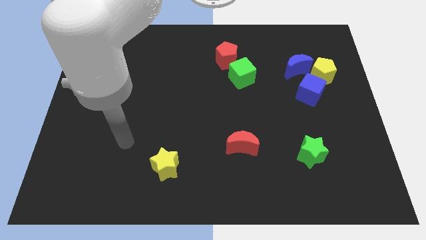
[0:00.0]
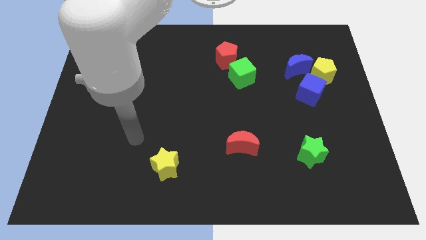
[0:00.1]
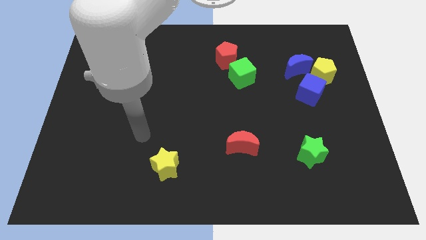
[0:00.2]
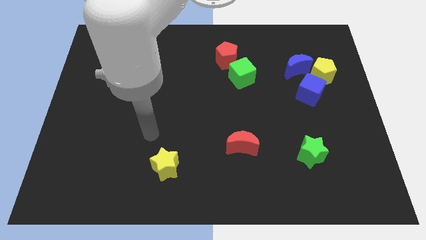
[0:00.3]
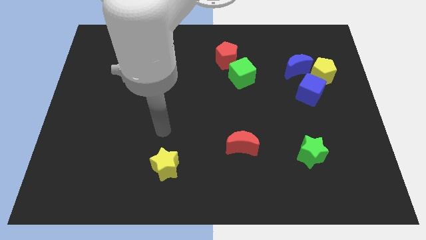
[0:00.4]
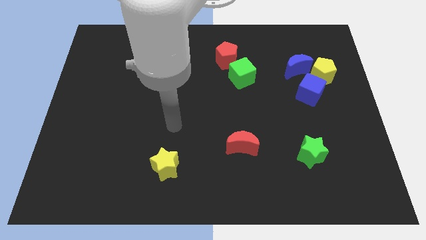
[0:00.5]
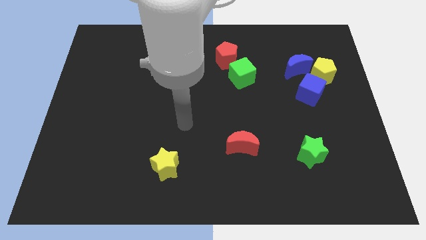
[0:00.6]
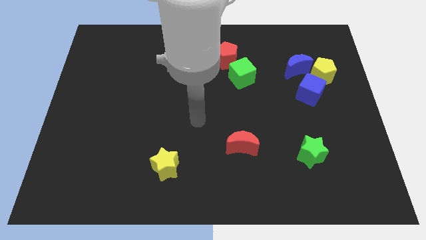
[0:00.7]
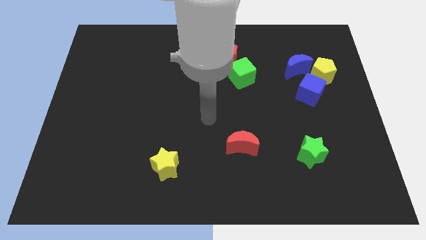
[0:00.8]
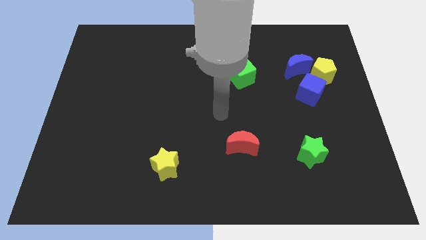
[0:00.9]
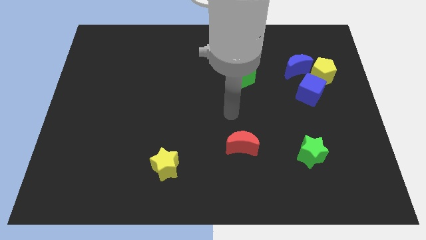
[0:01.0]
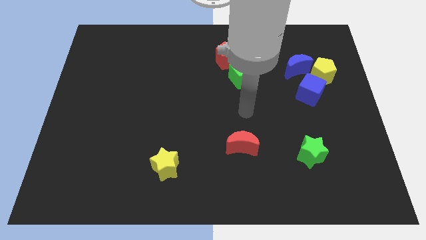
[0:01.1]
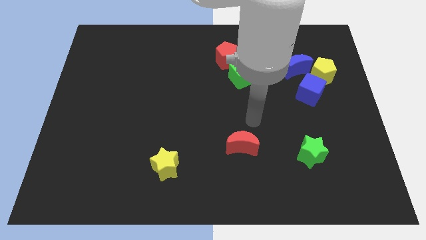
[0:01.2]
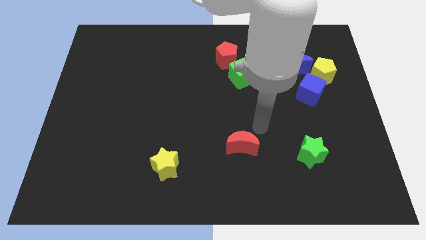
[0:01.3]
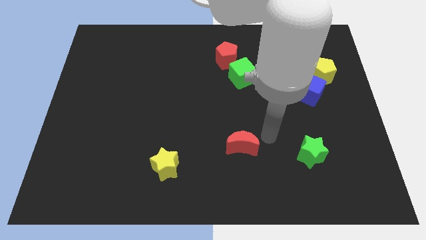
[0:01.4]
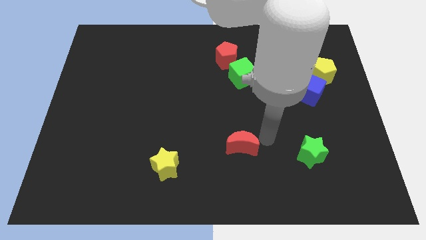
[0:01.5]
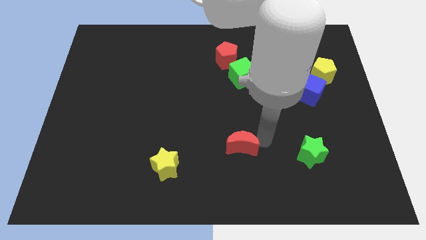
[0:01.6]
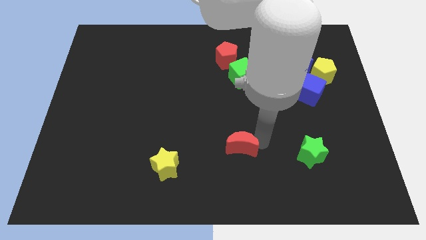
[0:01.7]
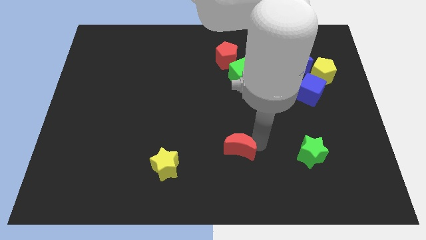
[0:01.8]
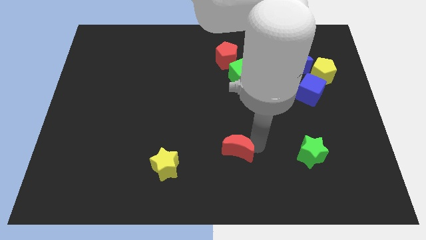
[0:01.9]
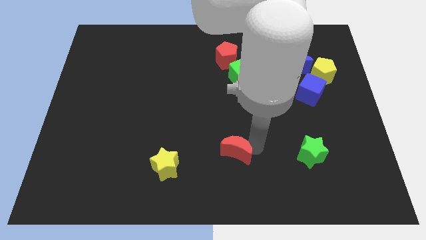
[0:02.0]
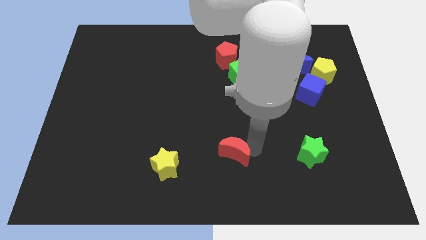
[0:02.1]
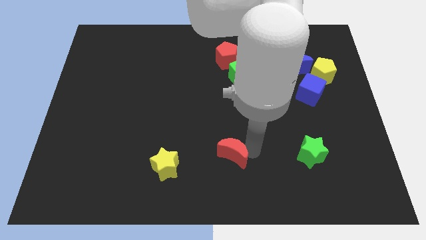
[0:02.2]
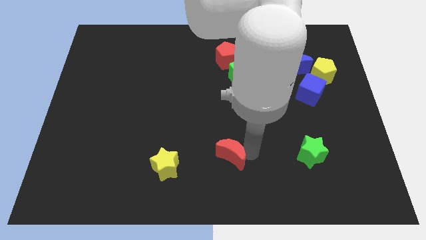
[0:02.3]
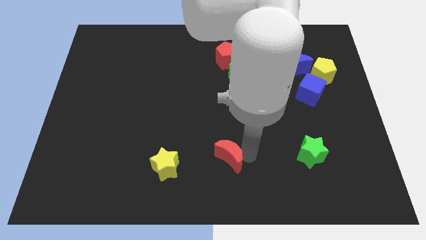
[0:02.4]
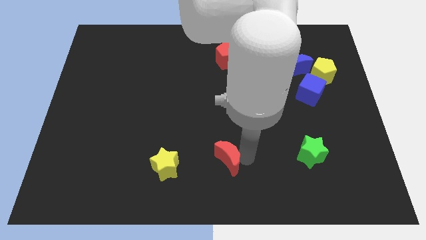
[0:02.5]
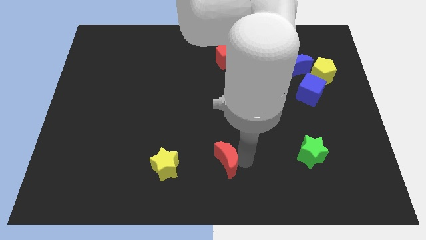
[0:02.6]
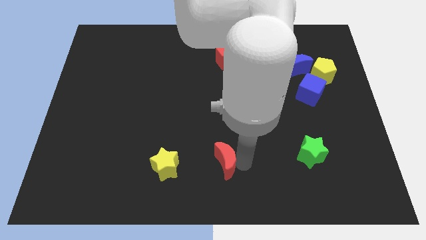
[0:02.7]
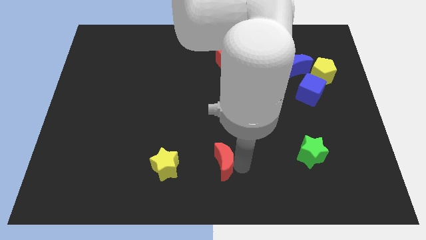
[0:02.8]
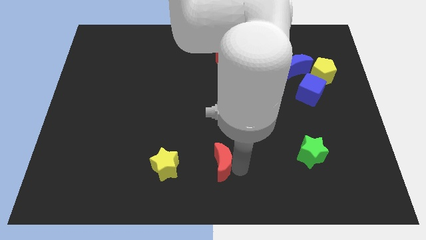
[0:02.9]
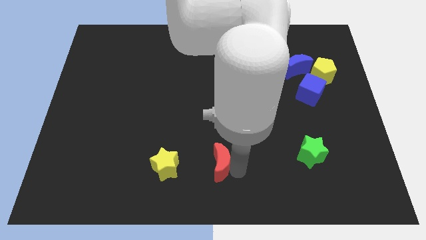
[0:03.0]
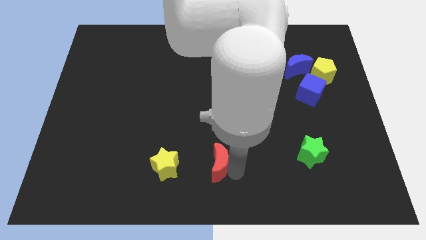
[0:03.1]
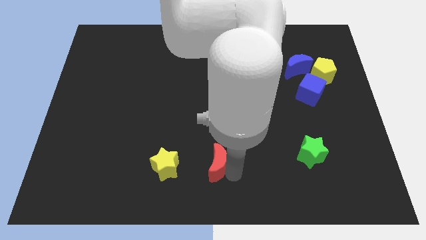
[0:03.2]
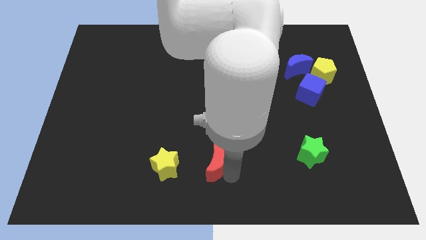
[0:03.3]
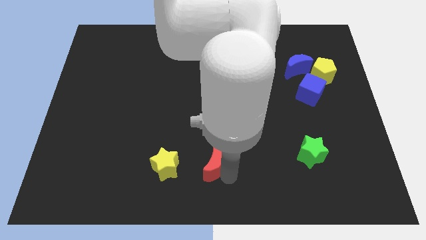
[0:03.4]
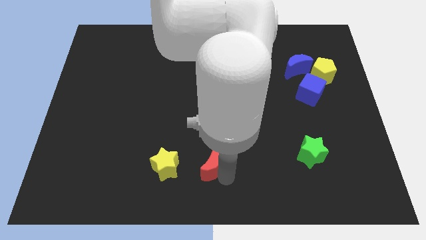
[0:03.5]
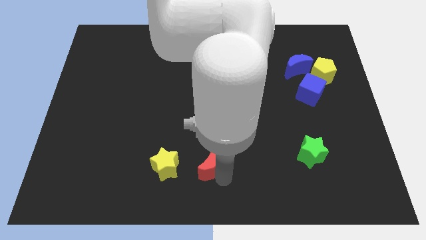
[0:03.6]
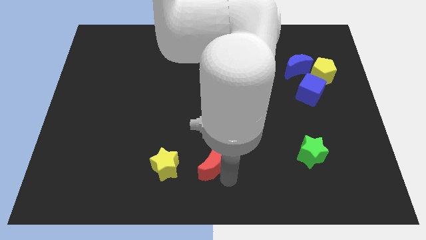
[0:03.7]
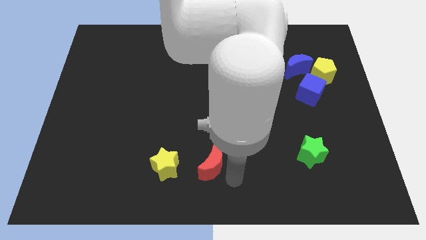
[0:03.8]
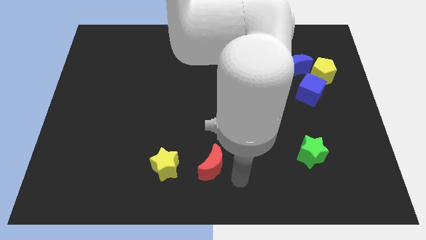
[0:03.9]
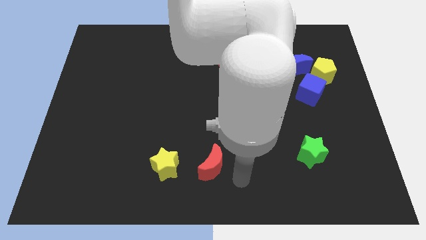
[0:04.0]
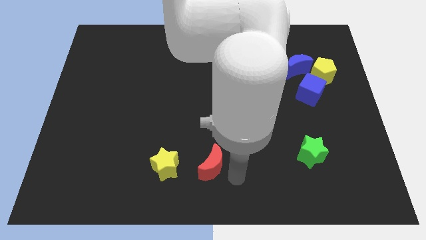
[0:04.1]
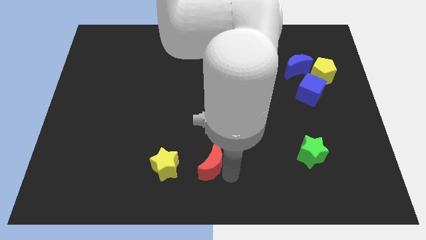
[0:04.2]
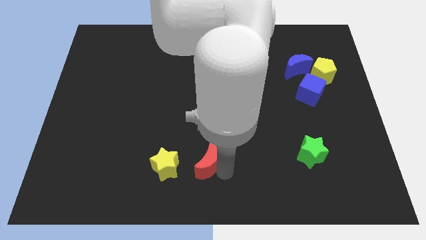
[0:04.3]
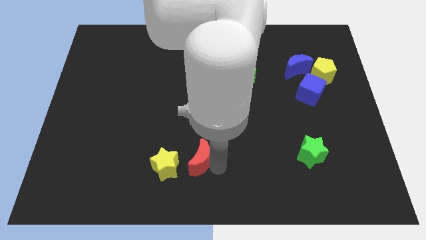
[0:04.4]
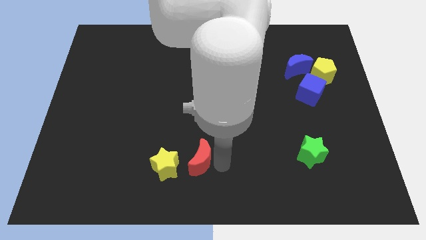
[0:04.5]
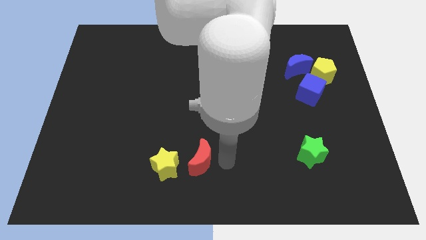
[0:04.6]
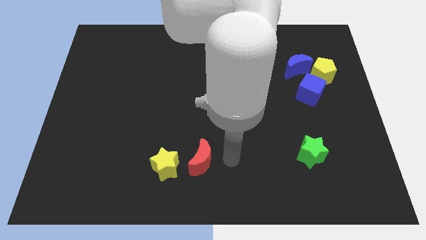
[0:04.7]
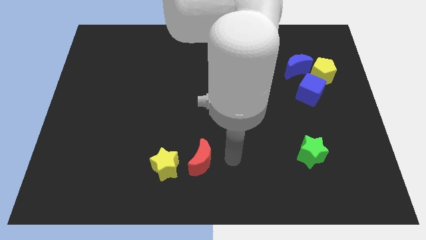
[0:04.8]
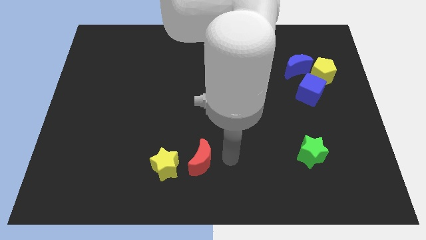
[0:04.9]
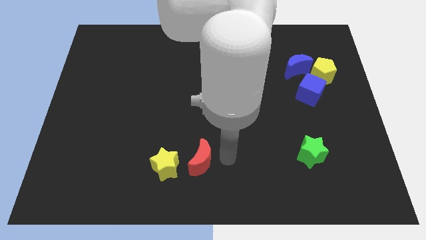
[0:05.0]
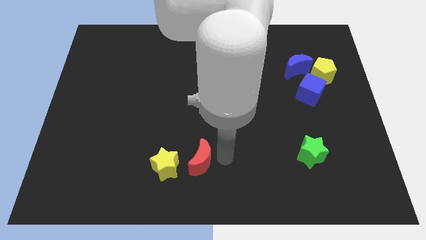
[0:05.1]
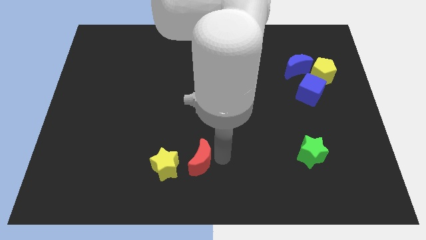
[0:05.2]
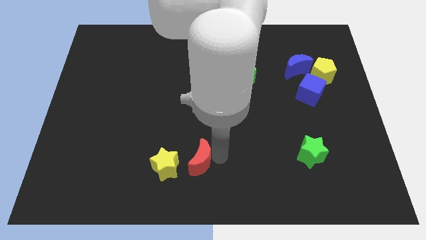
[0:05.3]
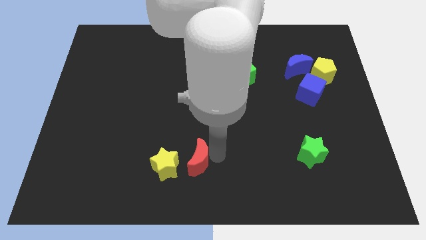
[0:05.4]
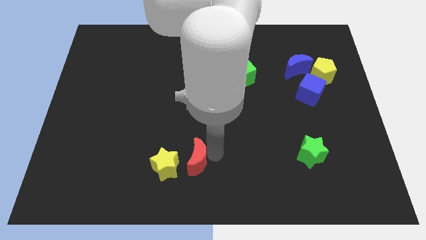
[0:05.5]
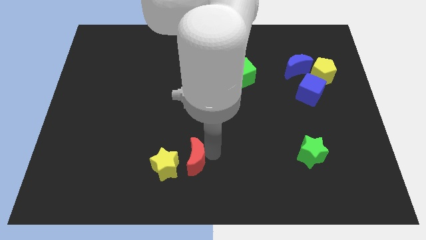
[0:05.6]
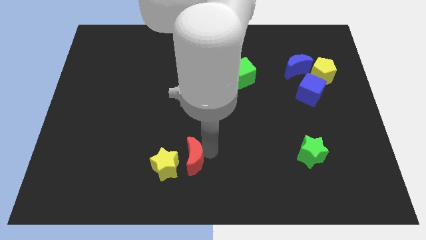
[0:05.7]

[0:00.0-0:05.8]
put the red moon close to the yellow star
